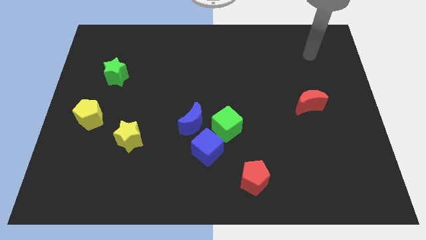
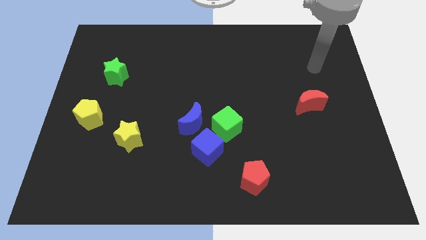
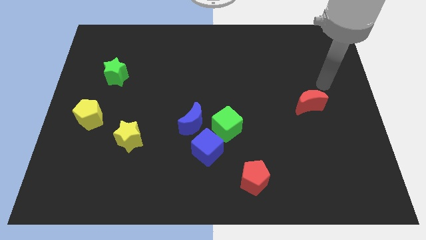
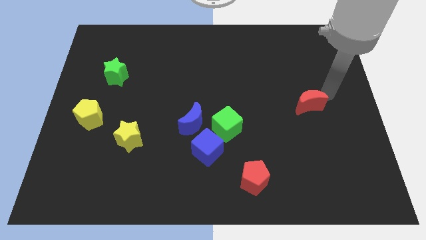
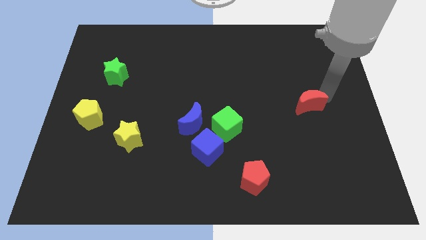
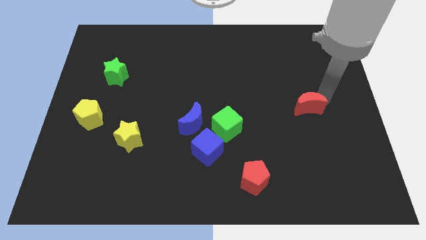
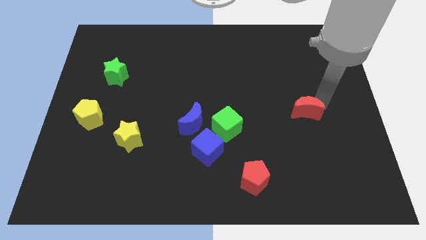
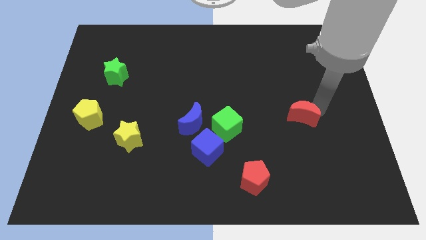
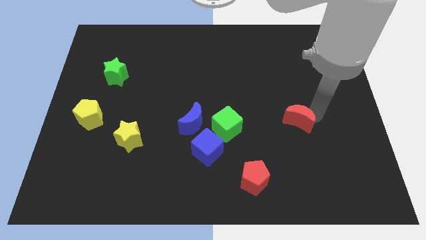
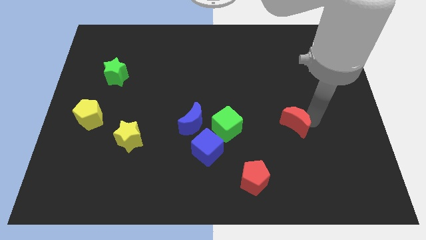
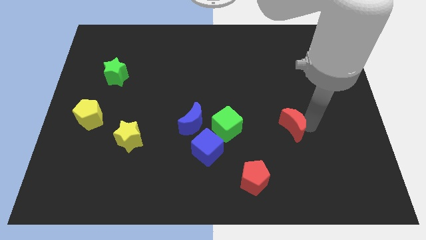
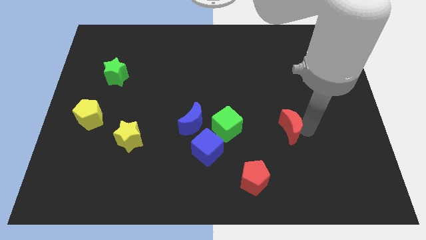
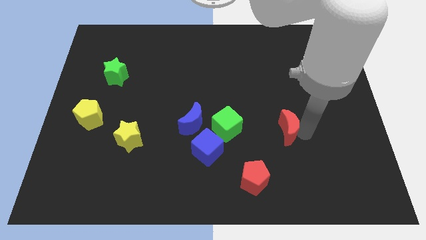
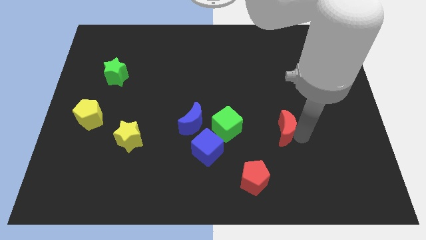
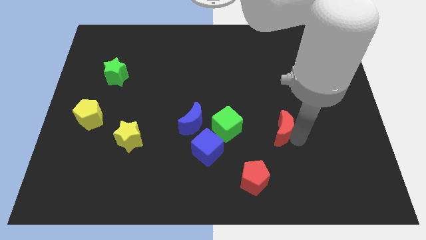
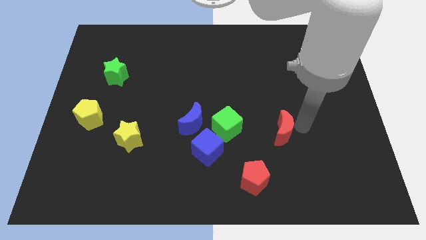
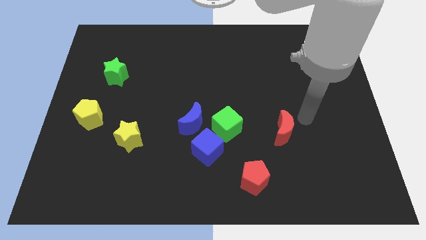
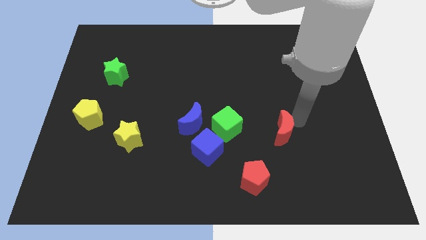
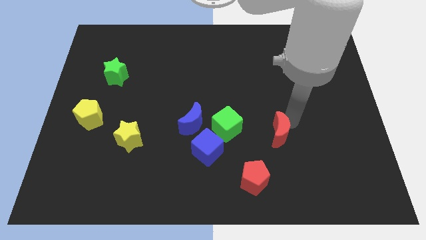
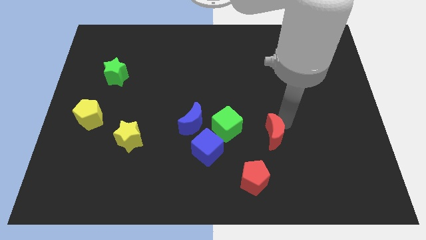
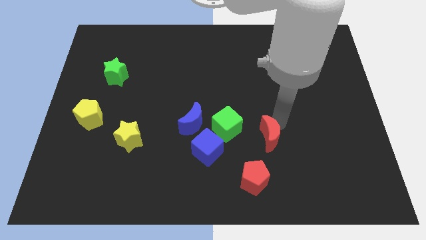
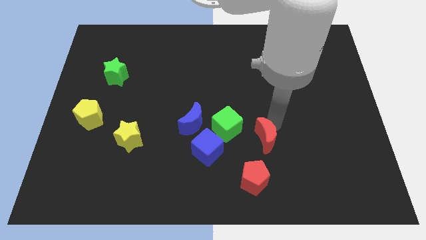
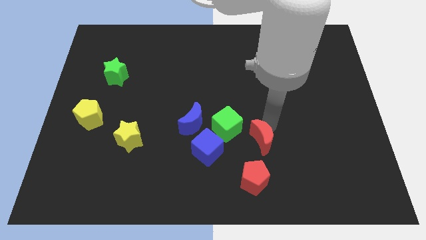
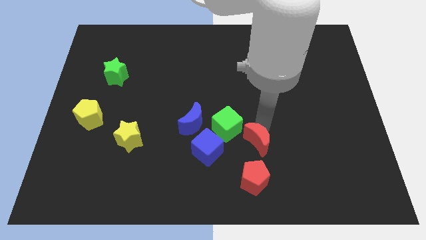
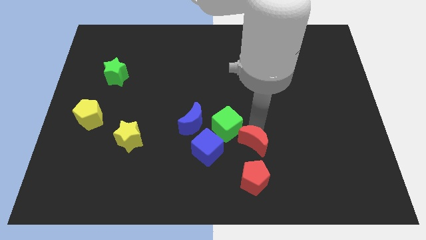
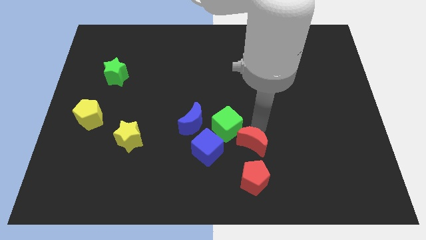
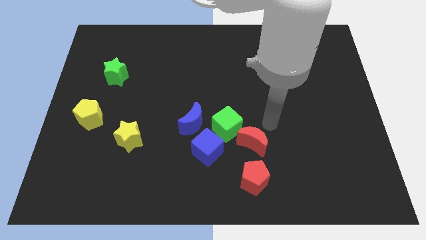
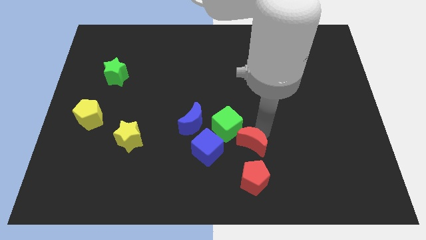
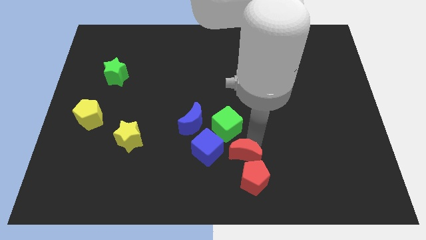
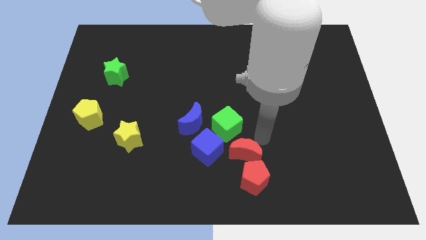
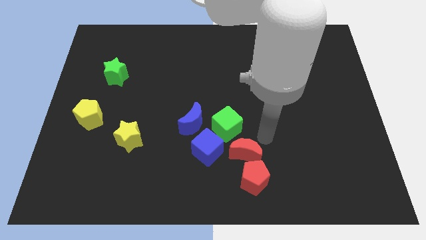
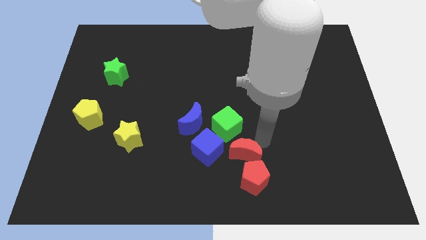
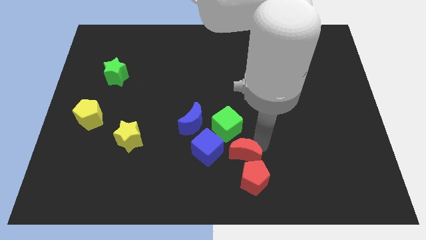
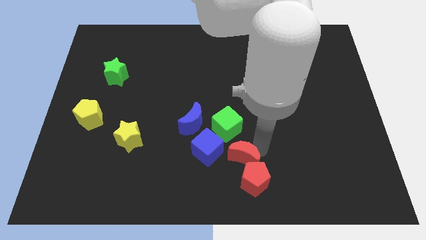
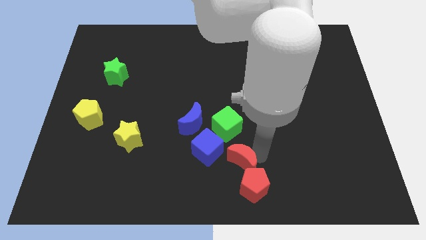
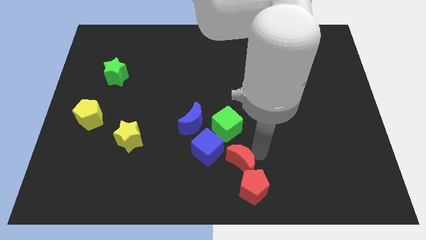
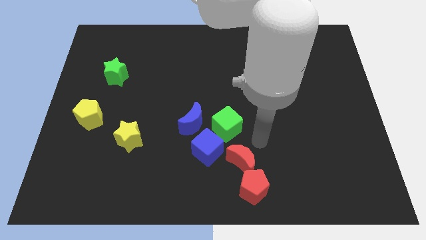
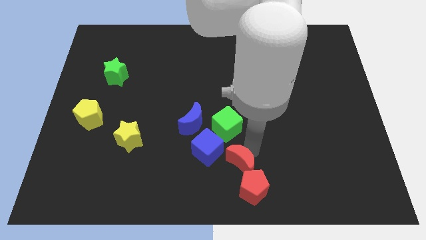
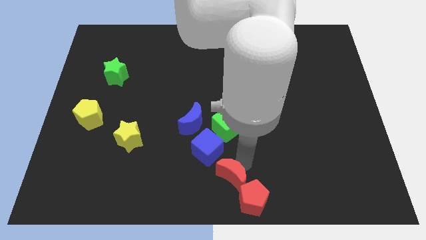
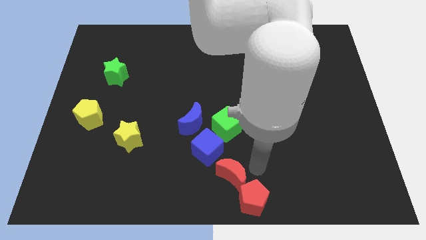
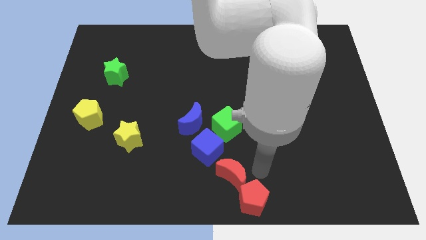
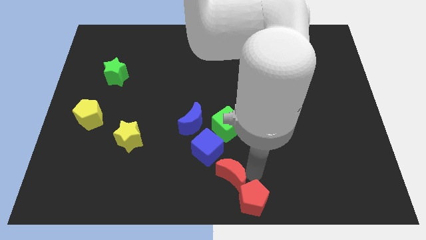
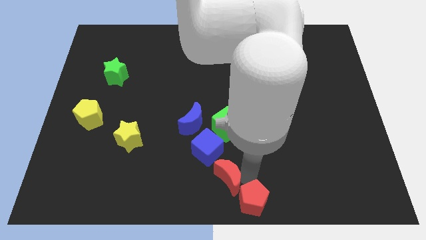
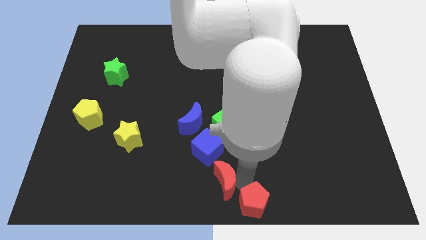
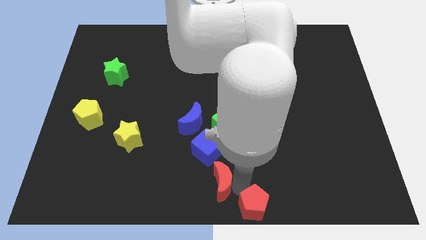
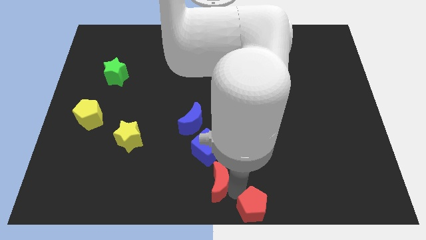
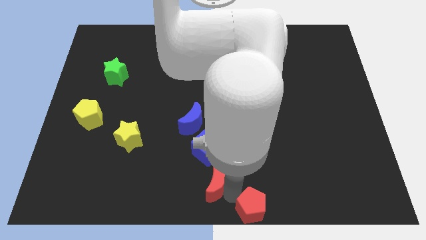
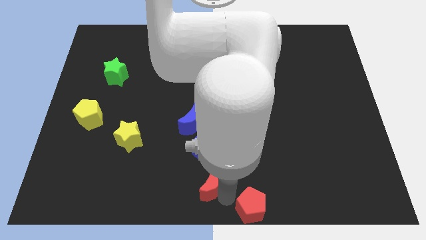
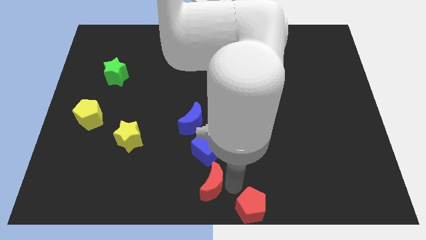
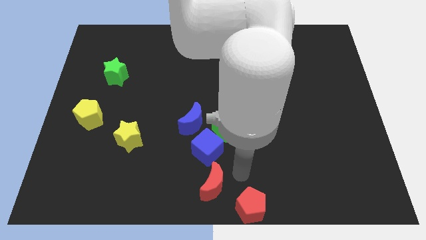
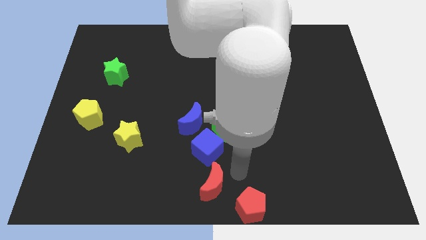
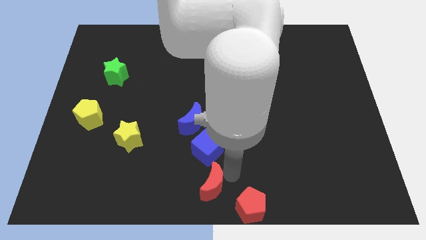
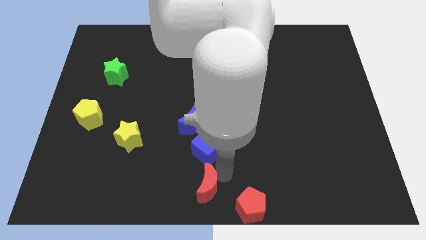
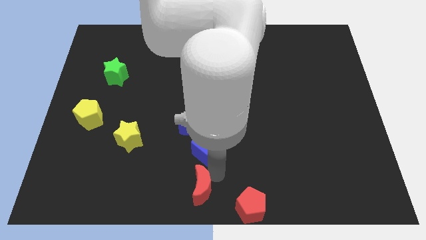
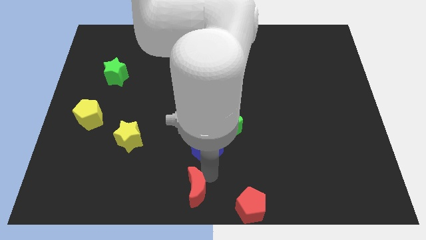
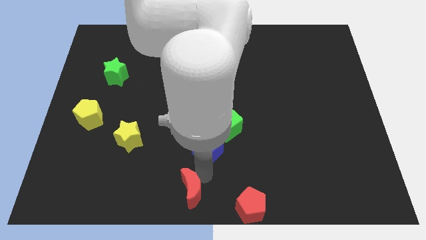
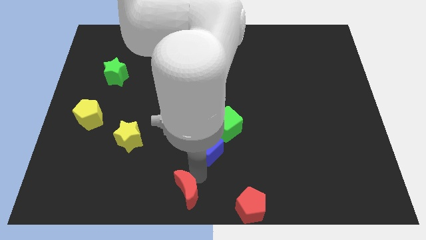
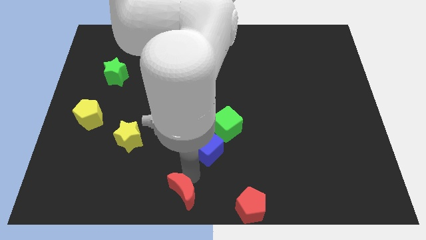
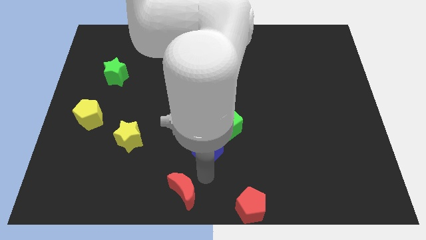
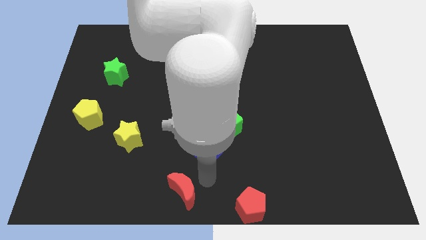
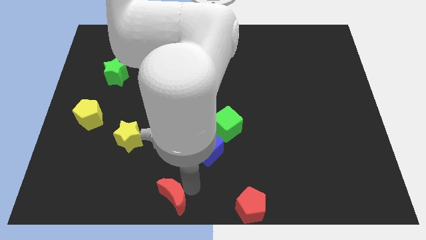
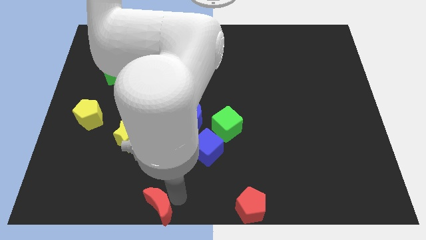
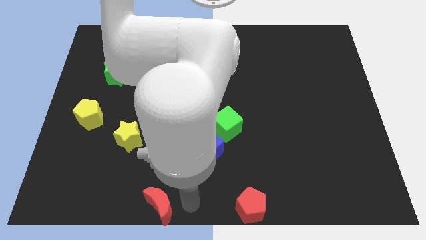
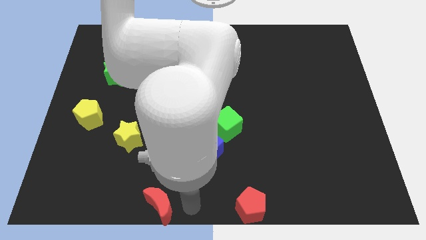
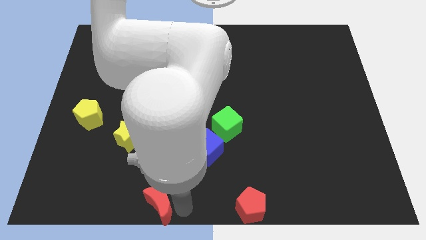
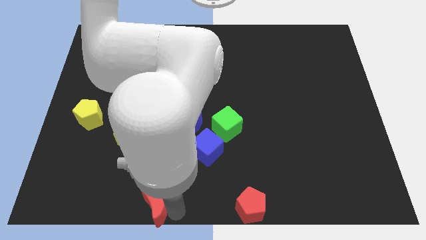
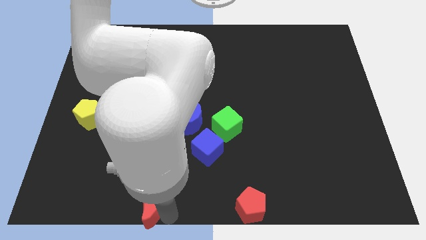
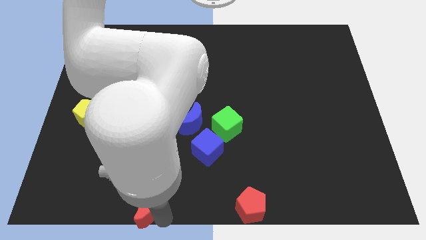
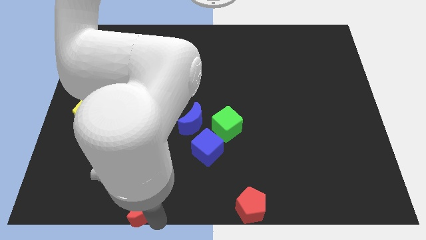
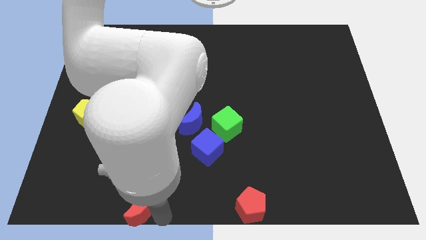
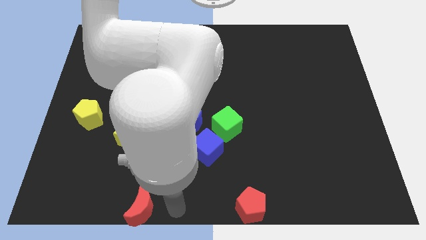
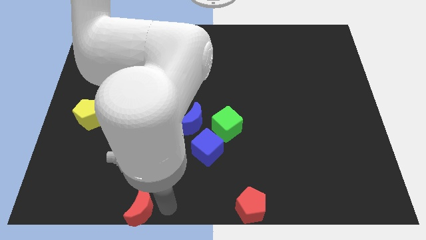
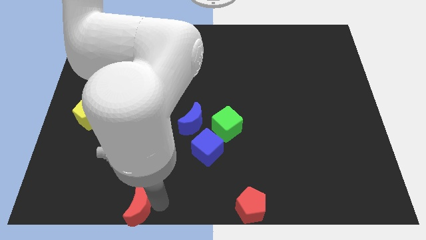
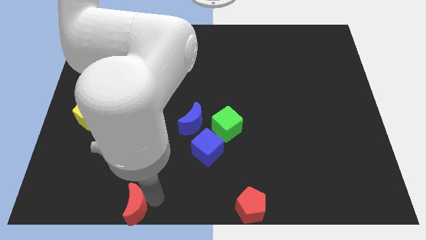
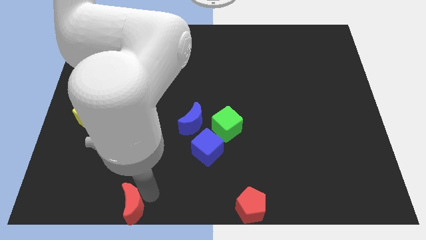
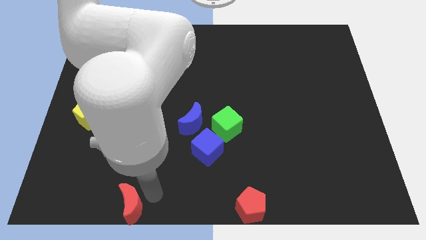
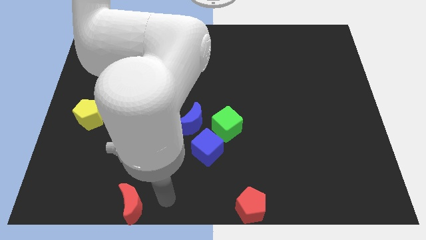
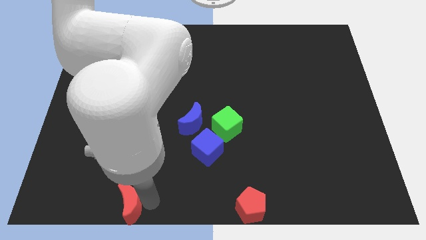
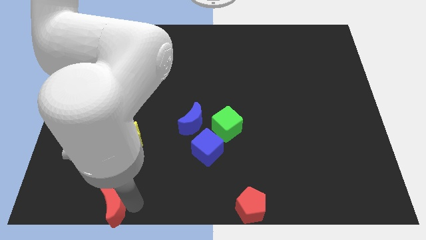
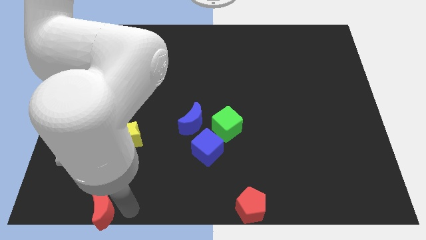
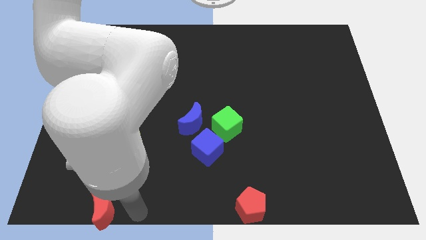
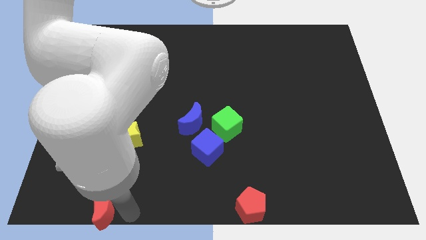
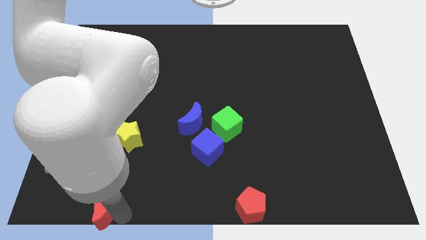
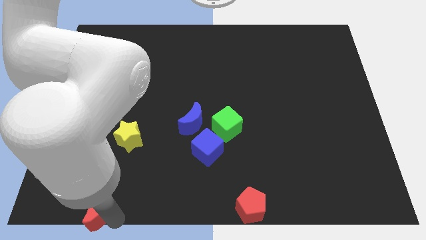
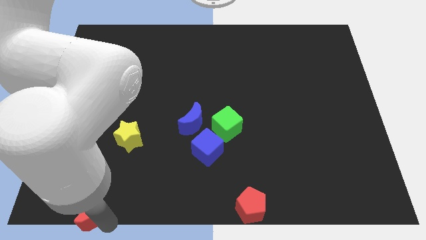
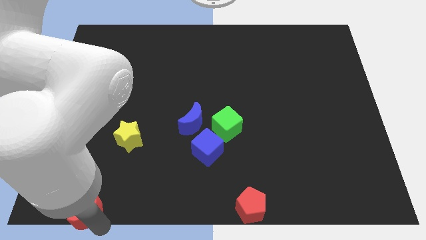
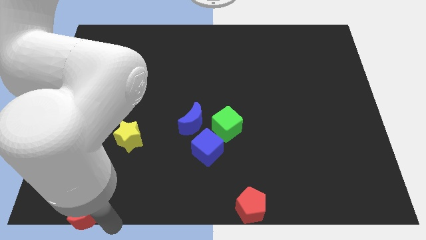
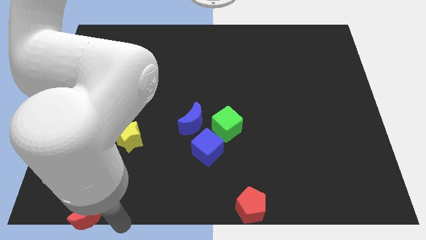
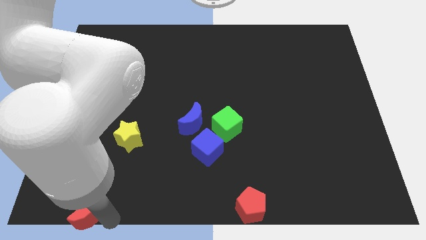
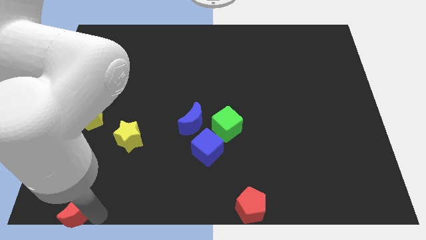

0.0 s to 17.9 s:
move the red moon to the lower left corner
